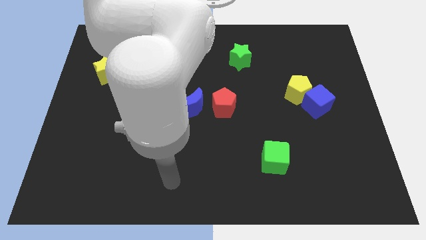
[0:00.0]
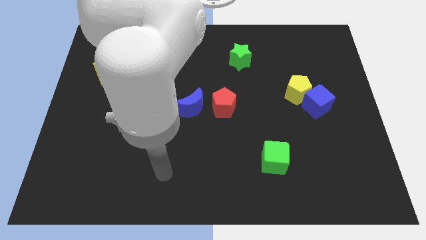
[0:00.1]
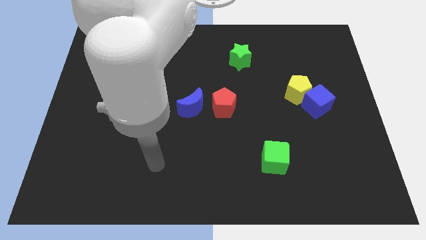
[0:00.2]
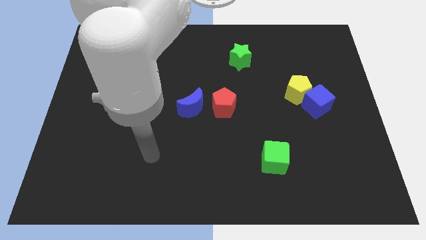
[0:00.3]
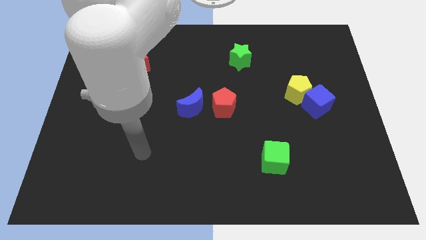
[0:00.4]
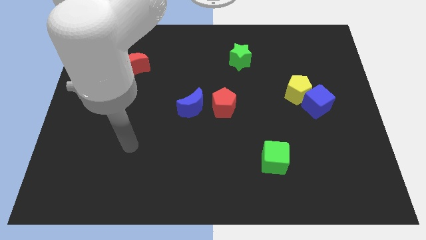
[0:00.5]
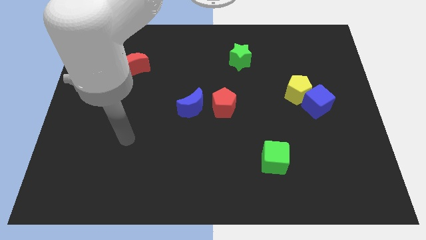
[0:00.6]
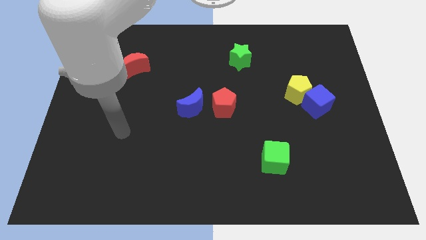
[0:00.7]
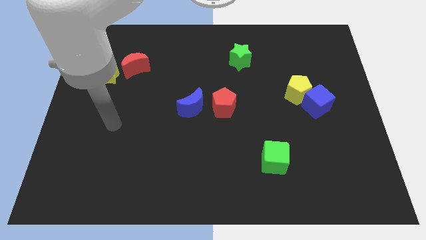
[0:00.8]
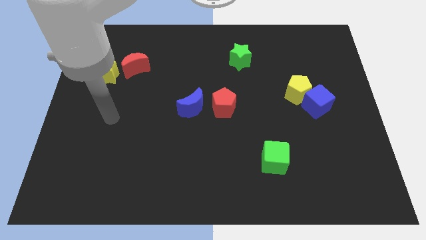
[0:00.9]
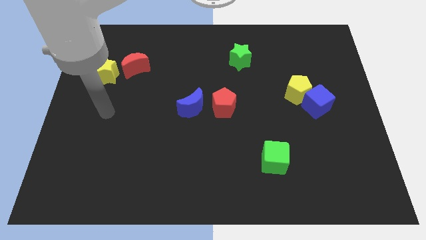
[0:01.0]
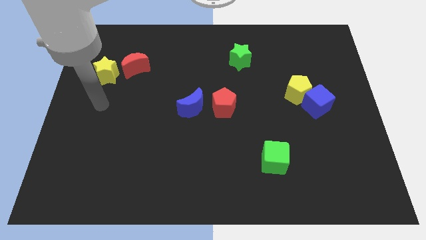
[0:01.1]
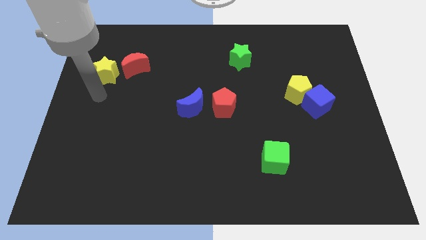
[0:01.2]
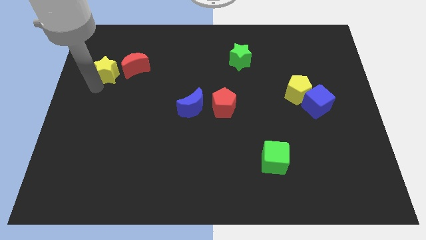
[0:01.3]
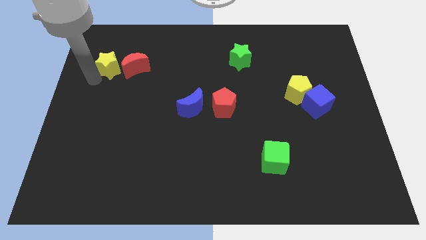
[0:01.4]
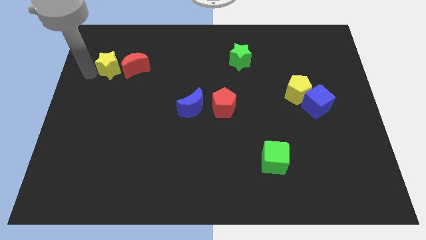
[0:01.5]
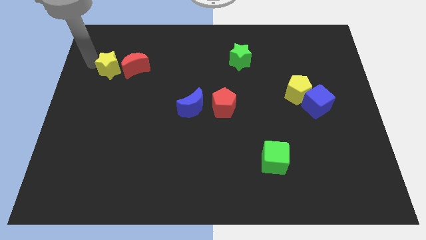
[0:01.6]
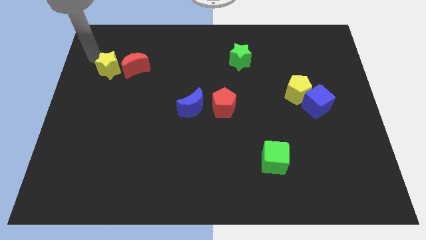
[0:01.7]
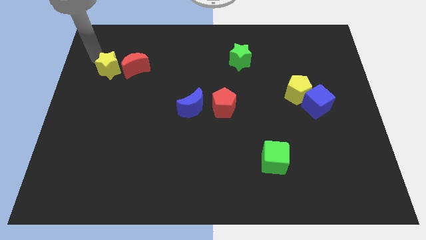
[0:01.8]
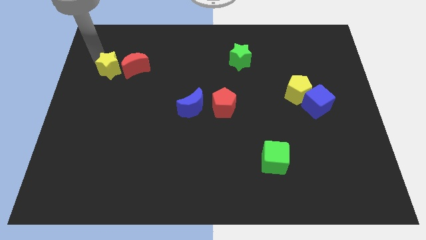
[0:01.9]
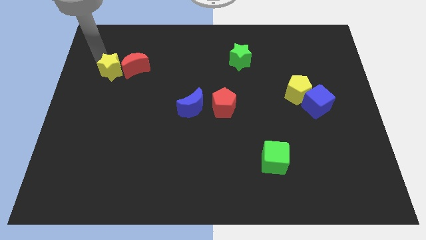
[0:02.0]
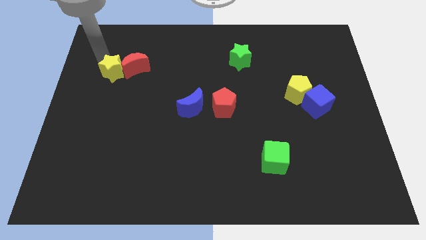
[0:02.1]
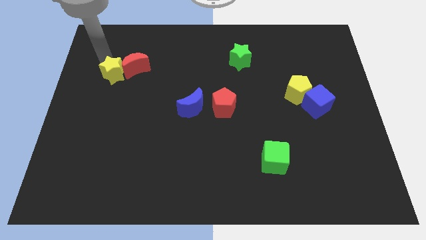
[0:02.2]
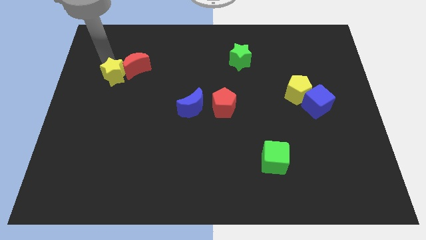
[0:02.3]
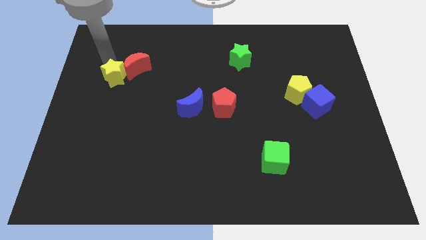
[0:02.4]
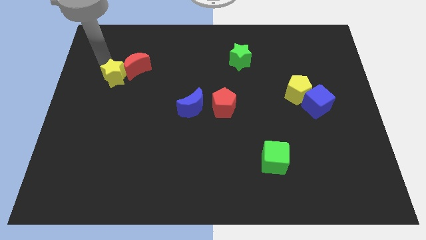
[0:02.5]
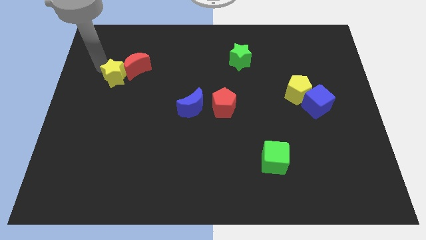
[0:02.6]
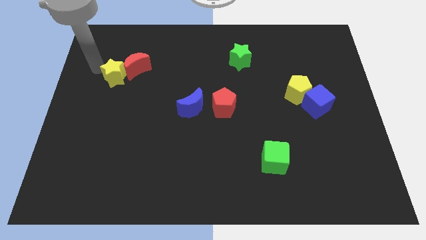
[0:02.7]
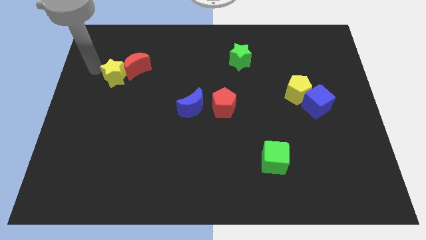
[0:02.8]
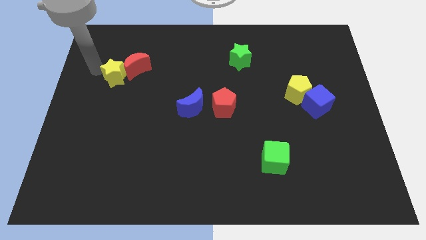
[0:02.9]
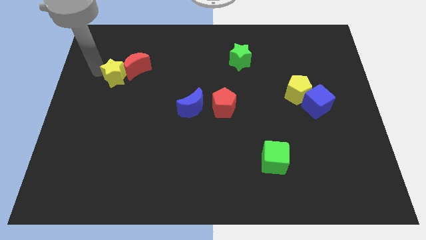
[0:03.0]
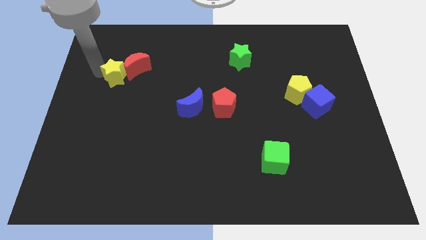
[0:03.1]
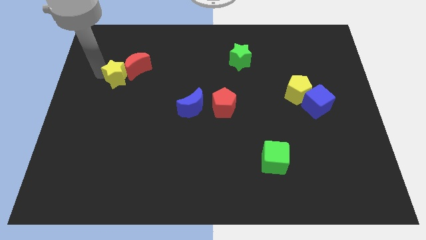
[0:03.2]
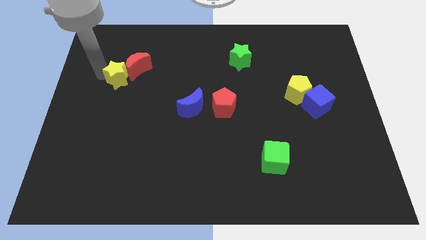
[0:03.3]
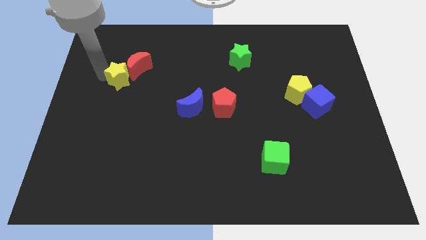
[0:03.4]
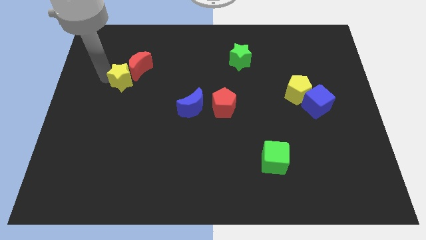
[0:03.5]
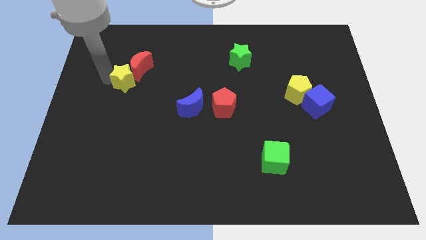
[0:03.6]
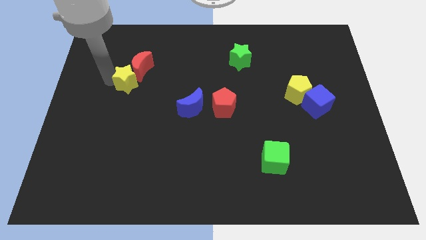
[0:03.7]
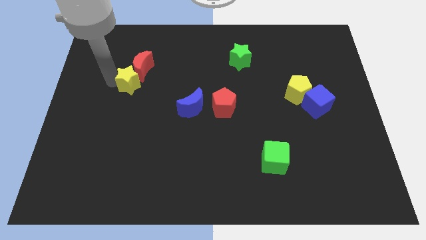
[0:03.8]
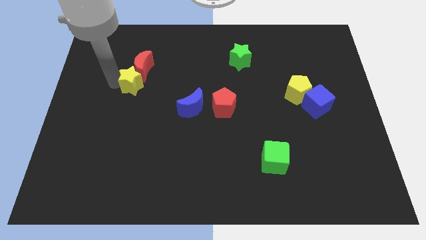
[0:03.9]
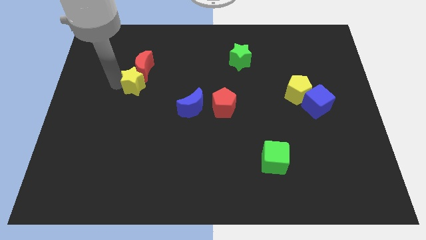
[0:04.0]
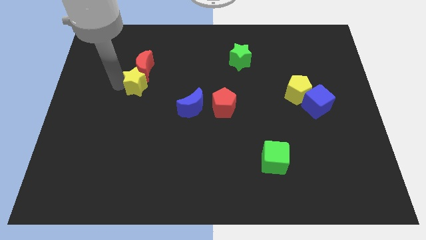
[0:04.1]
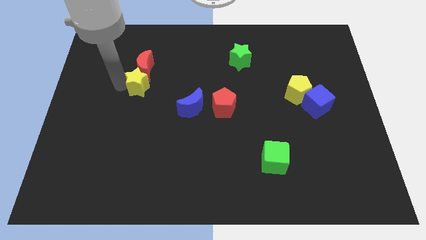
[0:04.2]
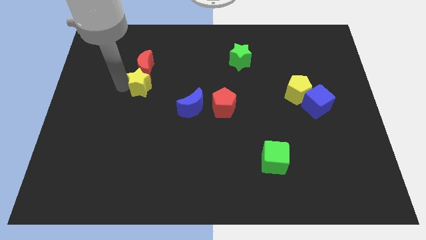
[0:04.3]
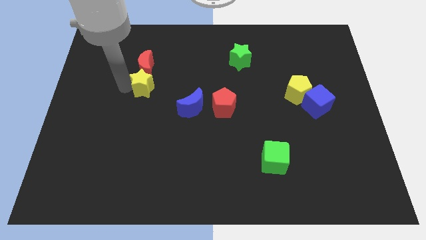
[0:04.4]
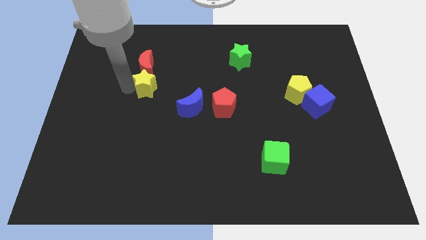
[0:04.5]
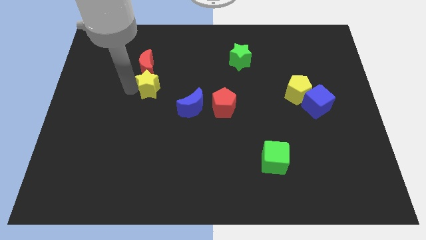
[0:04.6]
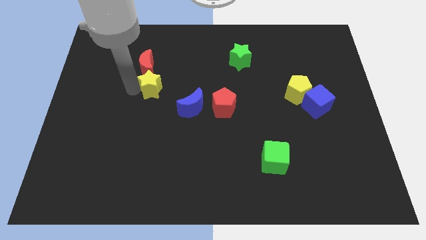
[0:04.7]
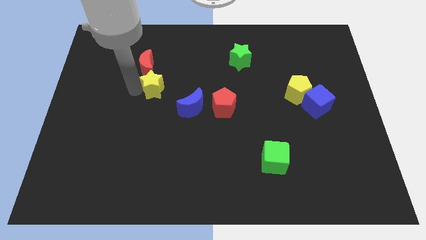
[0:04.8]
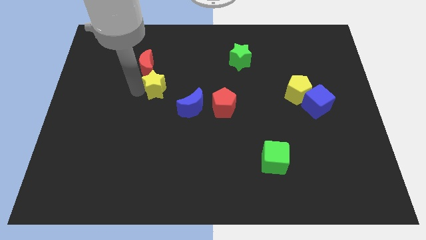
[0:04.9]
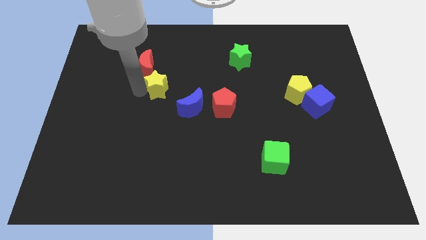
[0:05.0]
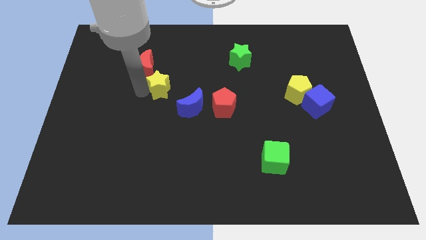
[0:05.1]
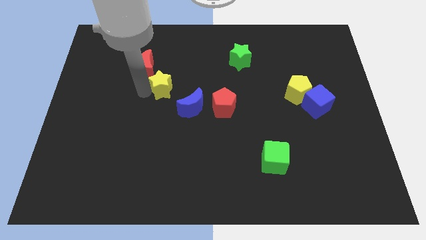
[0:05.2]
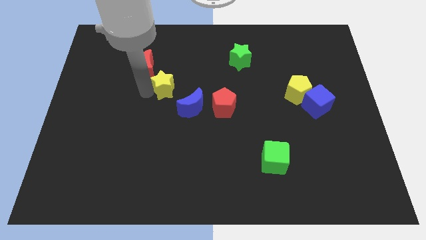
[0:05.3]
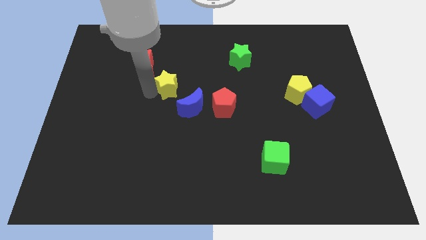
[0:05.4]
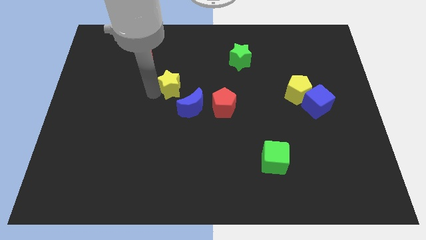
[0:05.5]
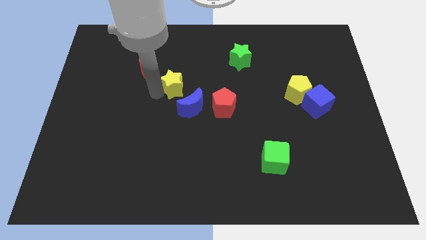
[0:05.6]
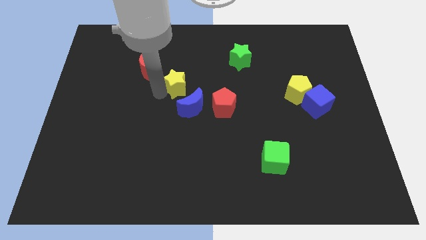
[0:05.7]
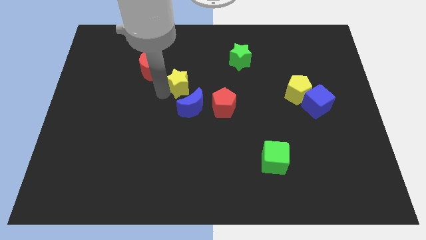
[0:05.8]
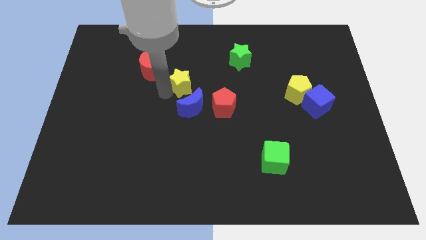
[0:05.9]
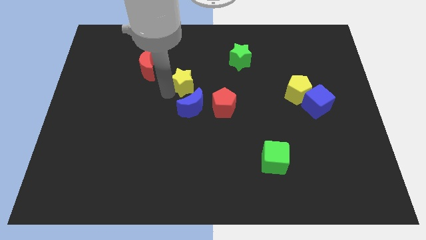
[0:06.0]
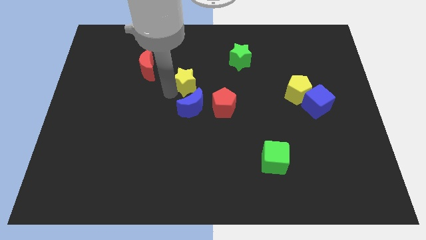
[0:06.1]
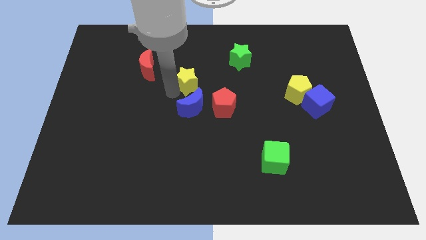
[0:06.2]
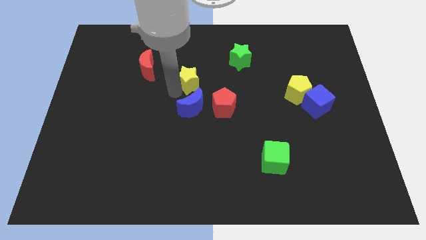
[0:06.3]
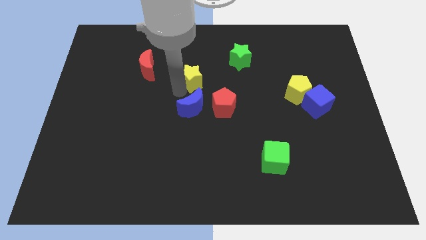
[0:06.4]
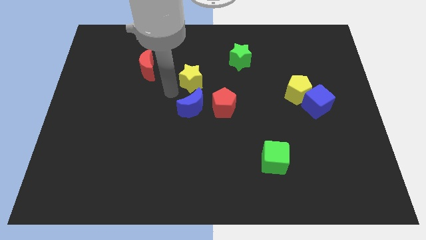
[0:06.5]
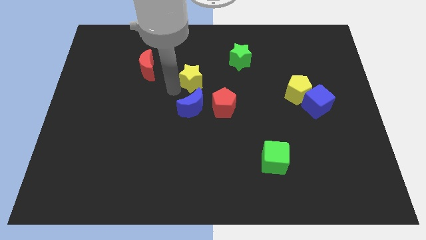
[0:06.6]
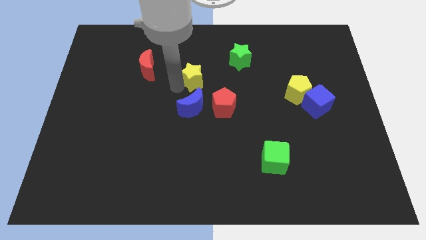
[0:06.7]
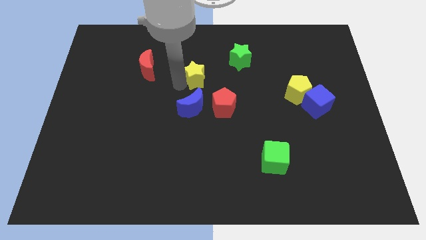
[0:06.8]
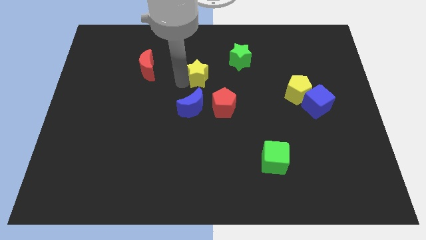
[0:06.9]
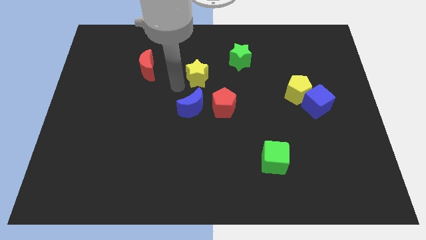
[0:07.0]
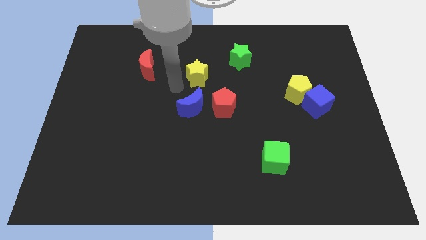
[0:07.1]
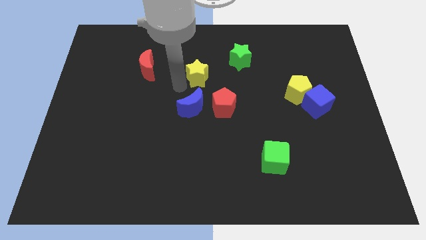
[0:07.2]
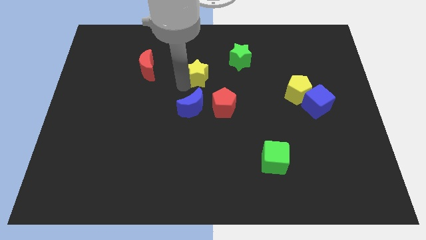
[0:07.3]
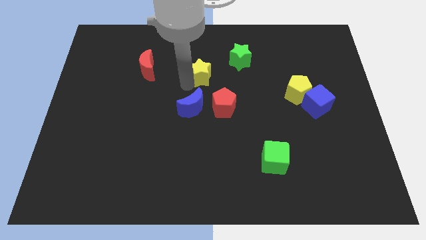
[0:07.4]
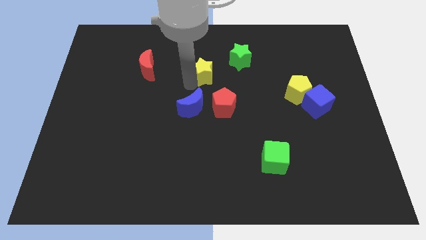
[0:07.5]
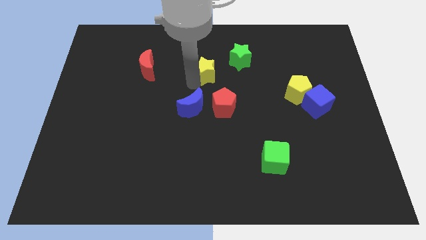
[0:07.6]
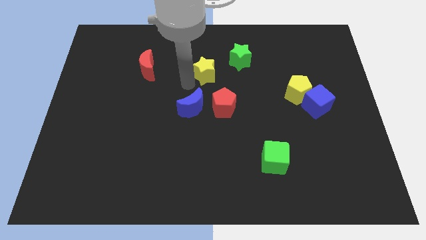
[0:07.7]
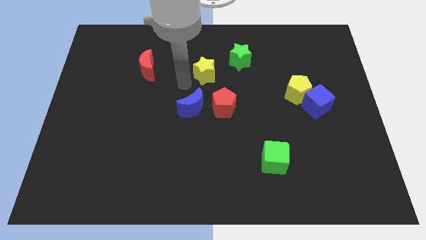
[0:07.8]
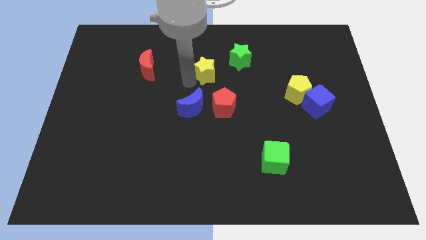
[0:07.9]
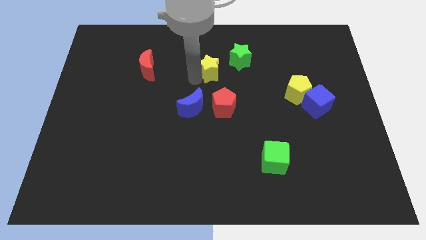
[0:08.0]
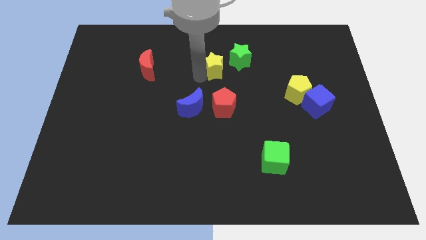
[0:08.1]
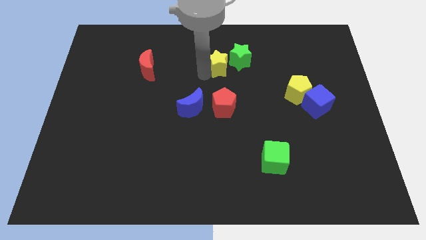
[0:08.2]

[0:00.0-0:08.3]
push the yellow star to the green star
